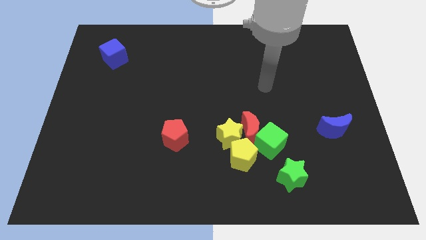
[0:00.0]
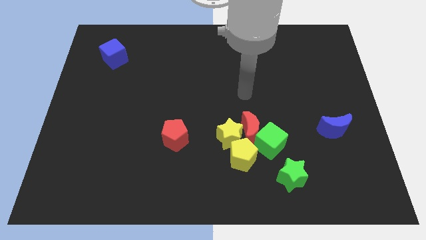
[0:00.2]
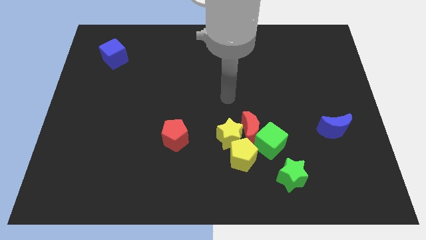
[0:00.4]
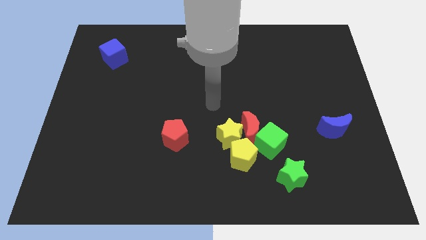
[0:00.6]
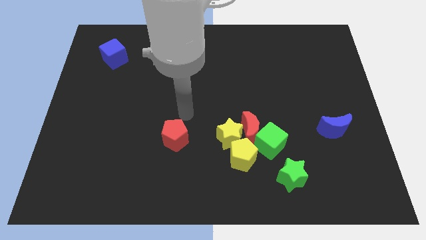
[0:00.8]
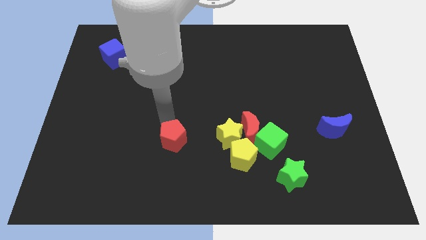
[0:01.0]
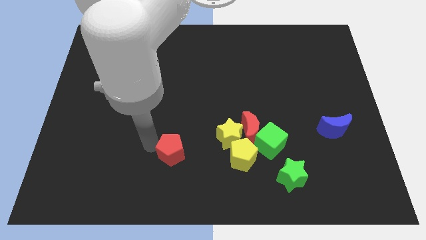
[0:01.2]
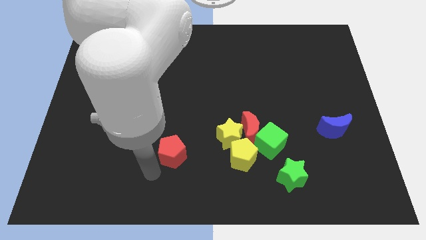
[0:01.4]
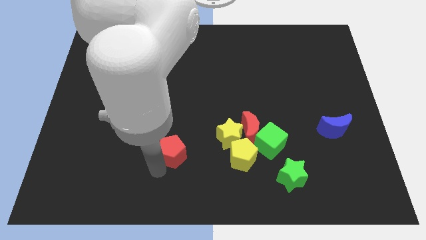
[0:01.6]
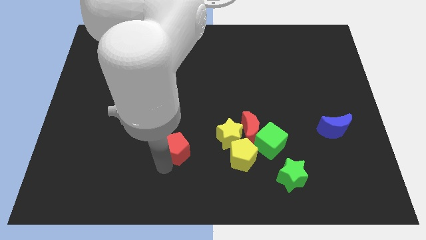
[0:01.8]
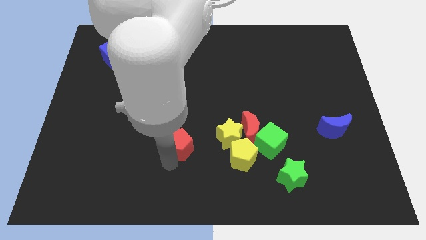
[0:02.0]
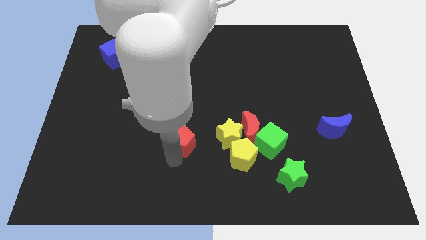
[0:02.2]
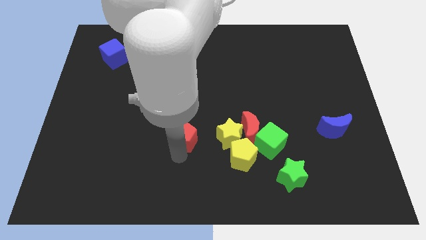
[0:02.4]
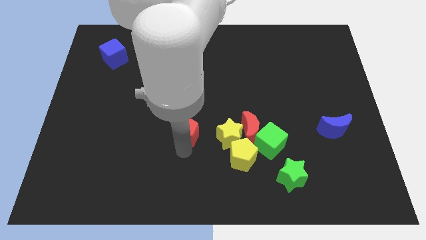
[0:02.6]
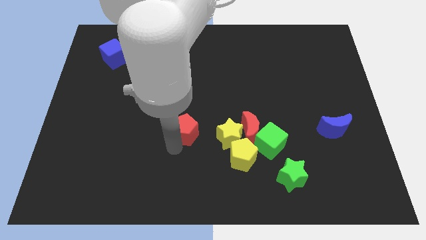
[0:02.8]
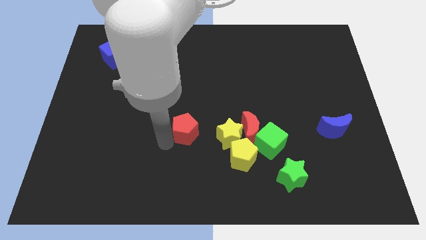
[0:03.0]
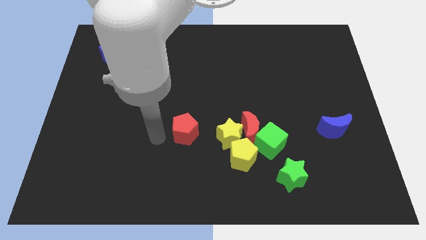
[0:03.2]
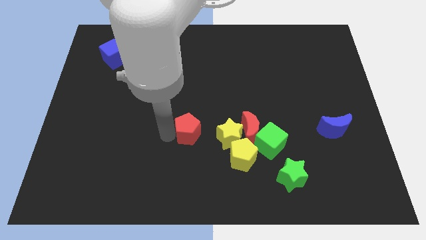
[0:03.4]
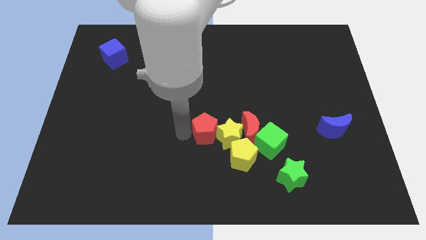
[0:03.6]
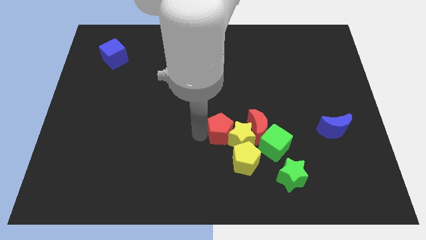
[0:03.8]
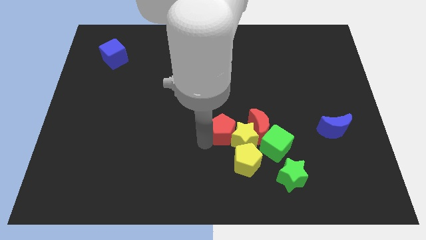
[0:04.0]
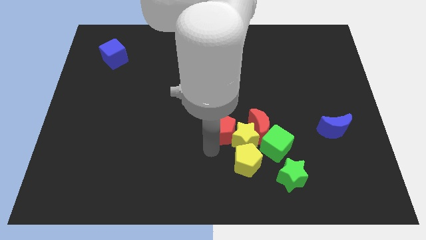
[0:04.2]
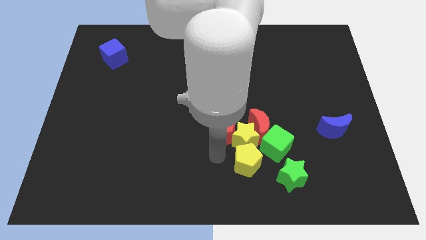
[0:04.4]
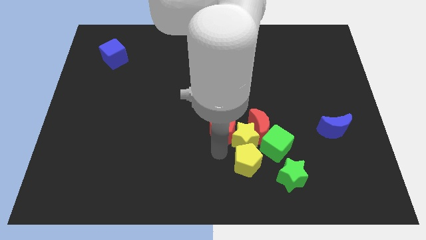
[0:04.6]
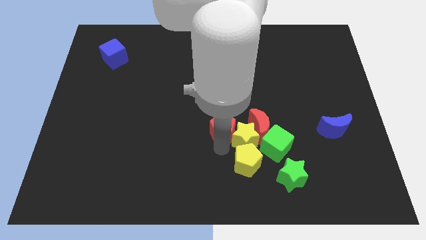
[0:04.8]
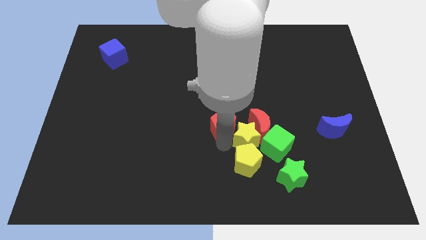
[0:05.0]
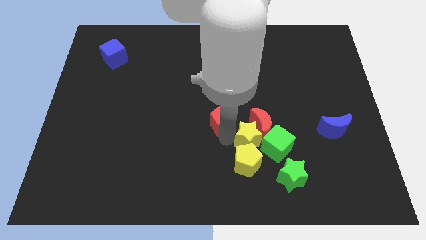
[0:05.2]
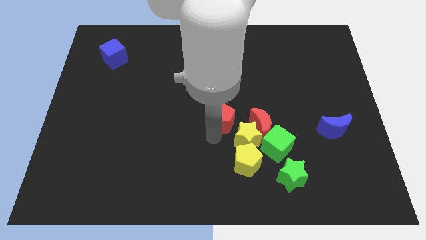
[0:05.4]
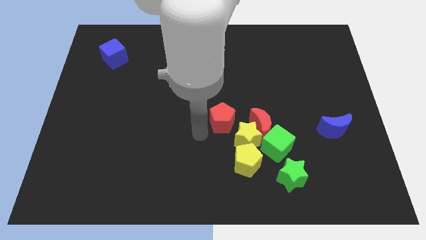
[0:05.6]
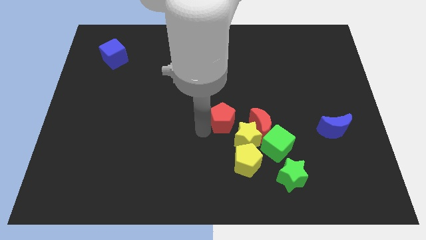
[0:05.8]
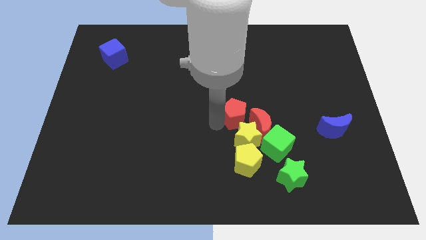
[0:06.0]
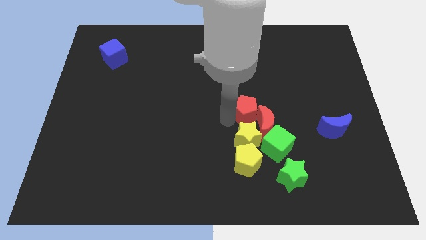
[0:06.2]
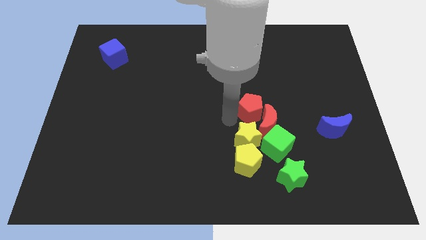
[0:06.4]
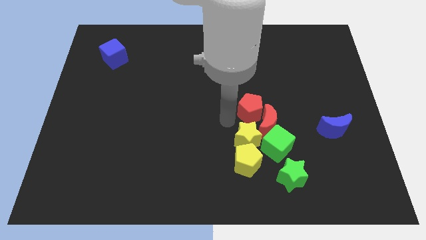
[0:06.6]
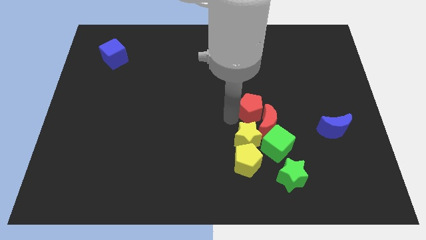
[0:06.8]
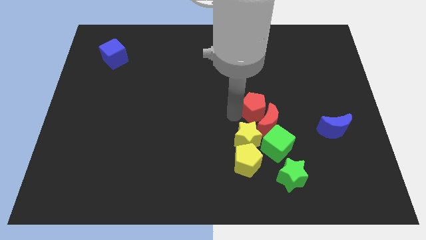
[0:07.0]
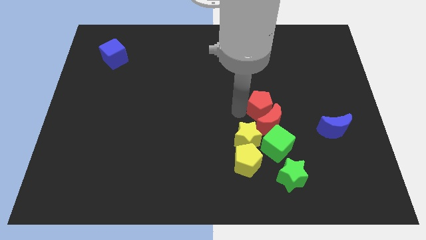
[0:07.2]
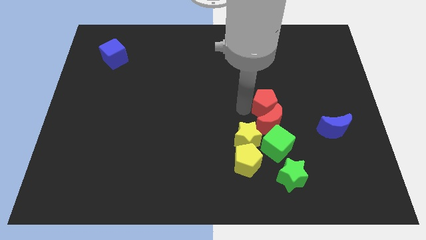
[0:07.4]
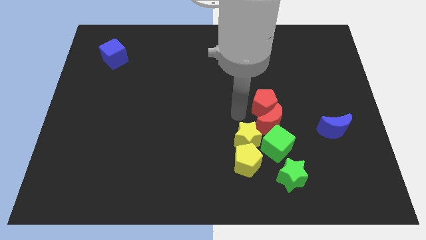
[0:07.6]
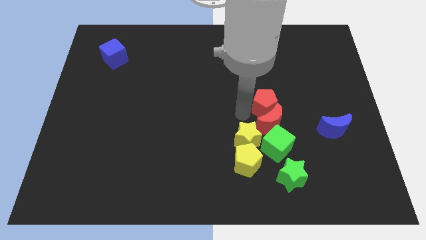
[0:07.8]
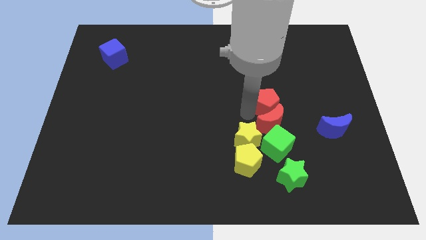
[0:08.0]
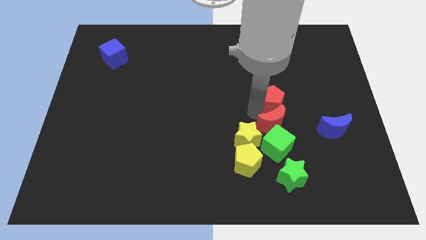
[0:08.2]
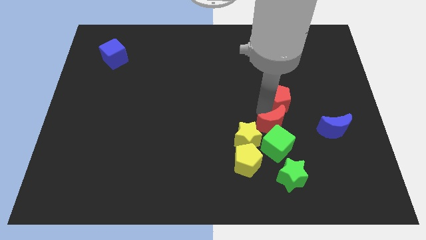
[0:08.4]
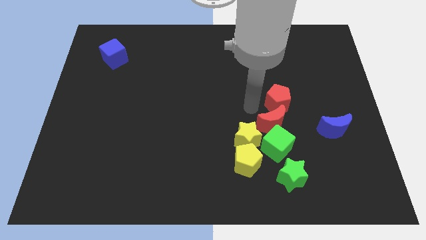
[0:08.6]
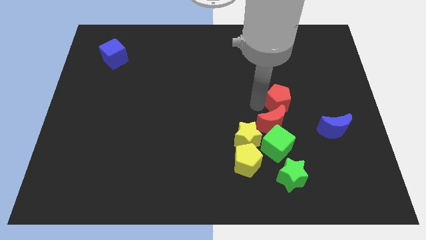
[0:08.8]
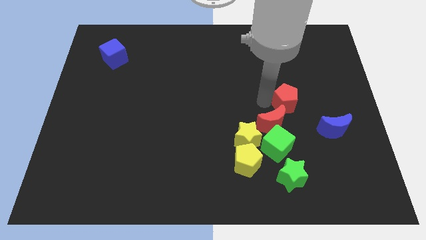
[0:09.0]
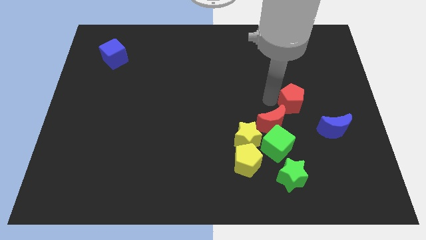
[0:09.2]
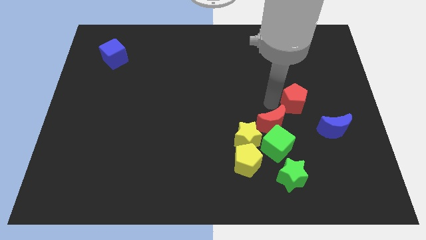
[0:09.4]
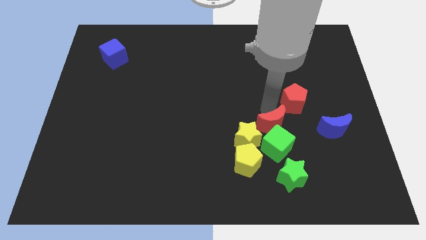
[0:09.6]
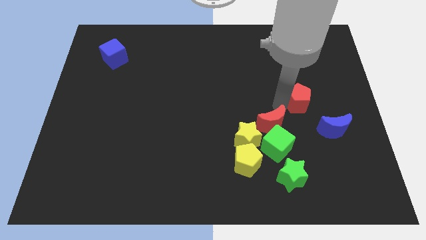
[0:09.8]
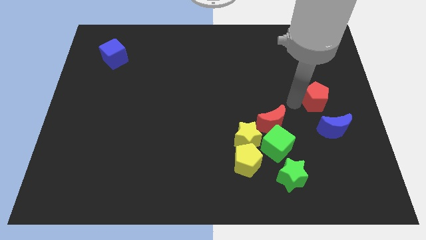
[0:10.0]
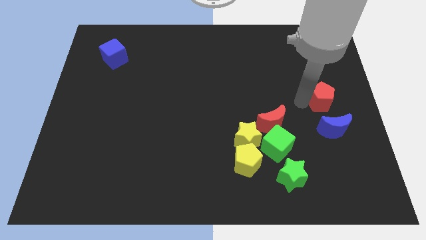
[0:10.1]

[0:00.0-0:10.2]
slide the red pentagon to the right side

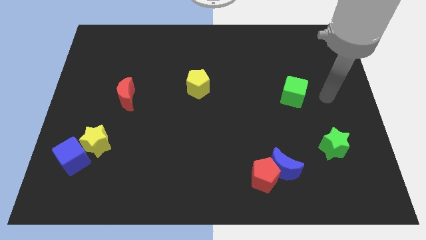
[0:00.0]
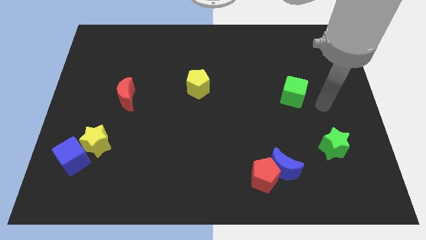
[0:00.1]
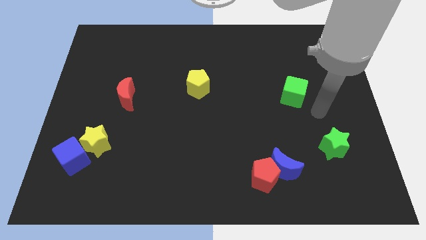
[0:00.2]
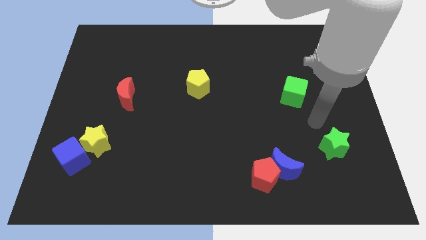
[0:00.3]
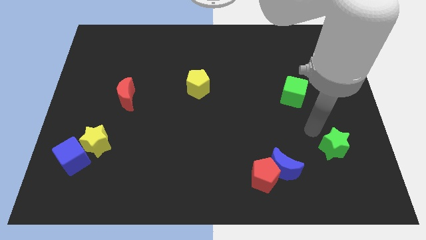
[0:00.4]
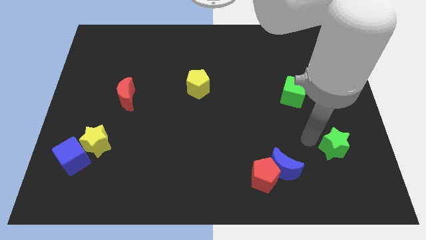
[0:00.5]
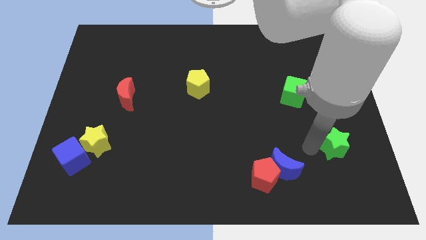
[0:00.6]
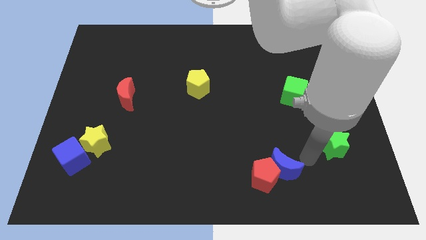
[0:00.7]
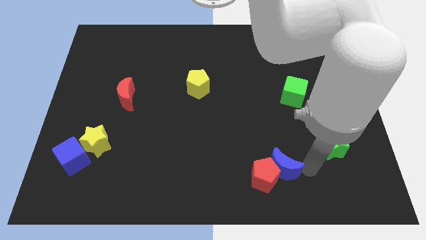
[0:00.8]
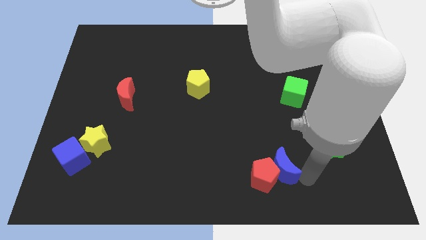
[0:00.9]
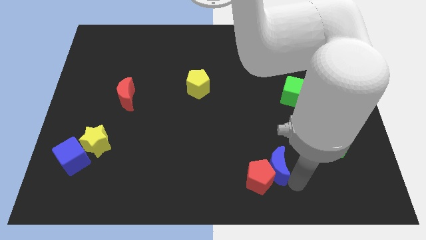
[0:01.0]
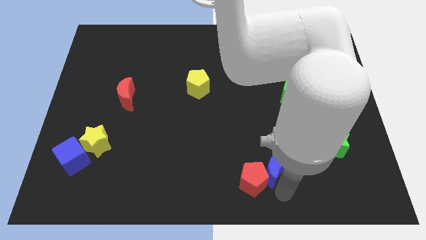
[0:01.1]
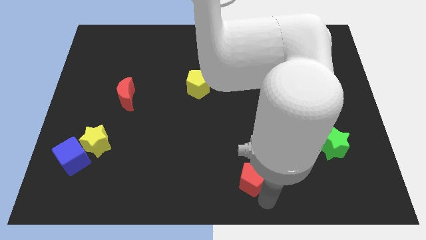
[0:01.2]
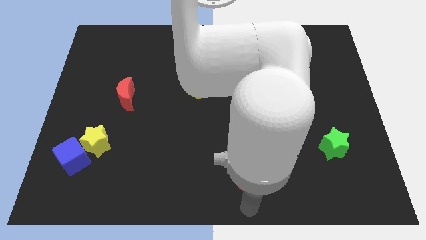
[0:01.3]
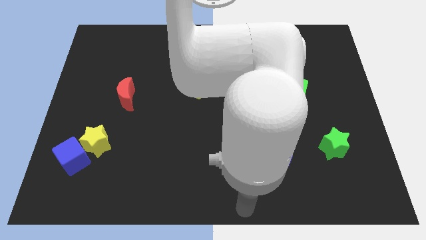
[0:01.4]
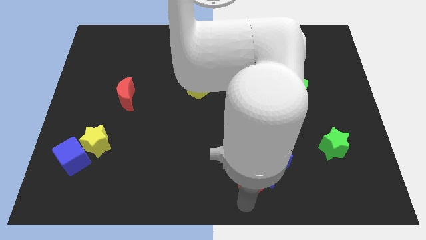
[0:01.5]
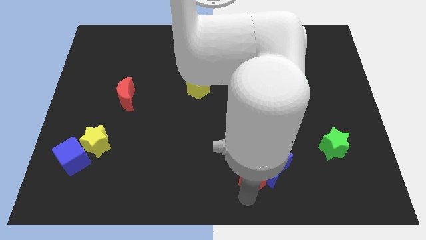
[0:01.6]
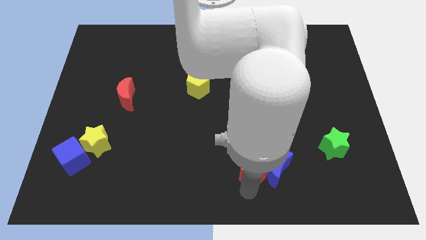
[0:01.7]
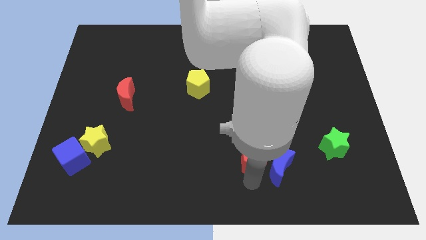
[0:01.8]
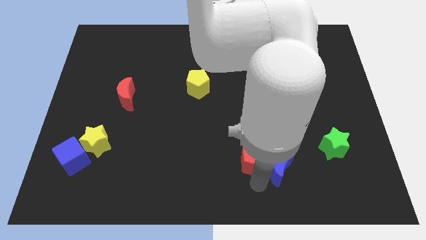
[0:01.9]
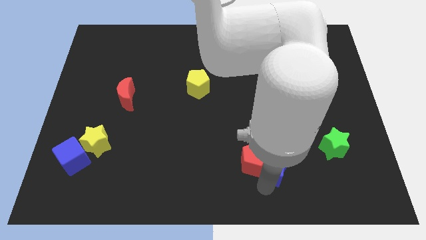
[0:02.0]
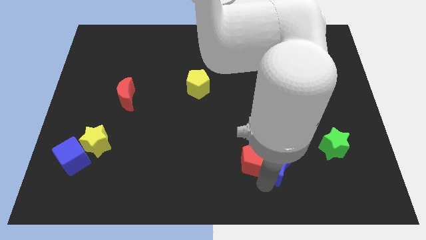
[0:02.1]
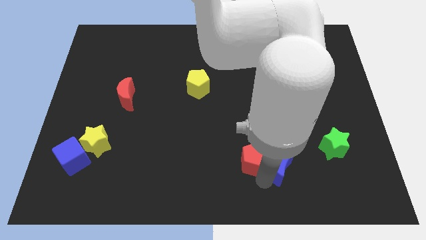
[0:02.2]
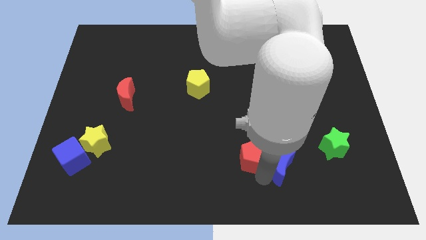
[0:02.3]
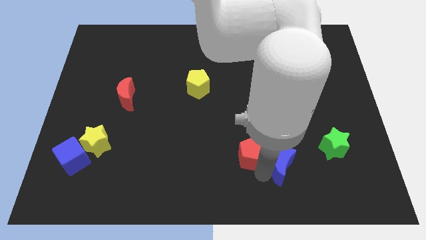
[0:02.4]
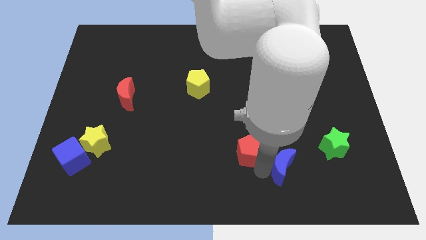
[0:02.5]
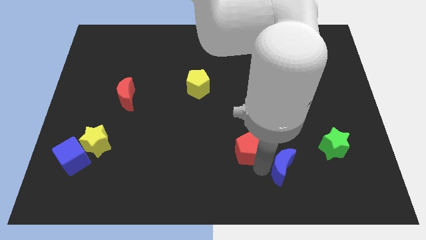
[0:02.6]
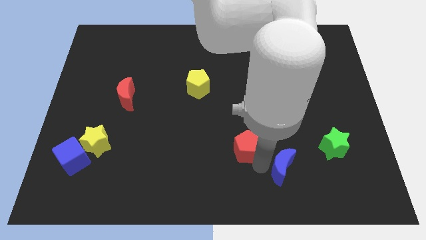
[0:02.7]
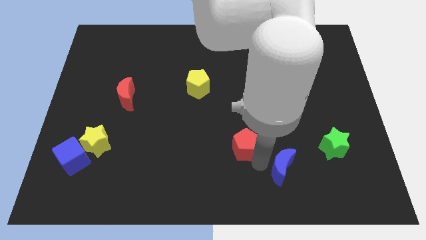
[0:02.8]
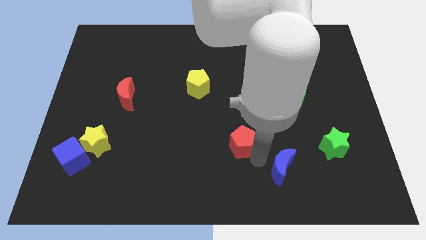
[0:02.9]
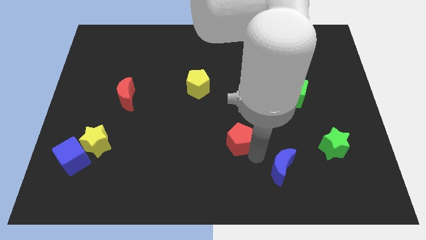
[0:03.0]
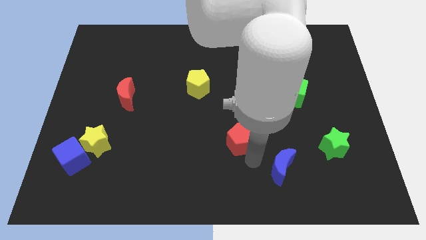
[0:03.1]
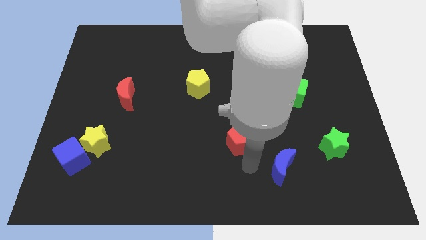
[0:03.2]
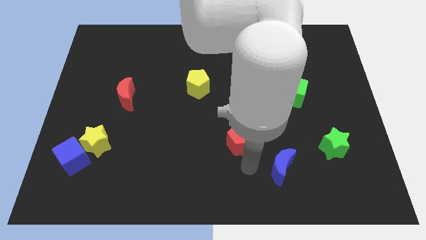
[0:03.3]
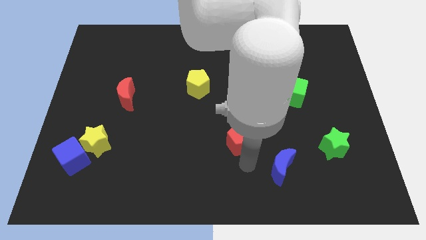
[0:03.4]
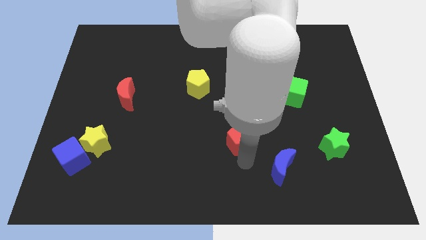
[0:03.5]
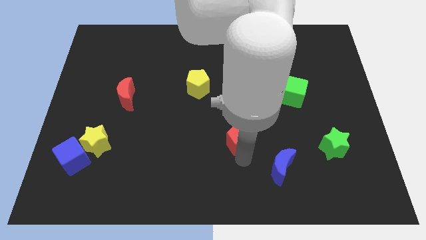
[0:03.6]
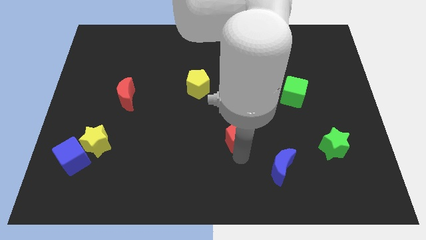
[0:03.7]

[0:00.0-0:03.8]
put the red pentagon to the center
